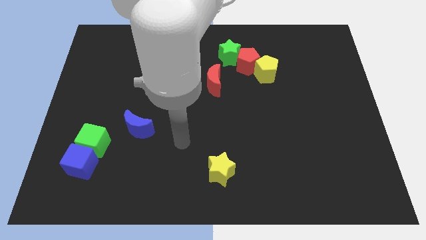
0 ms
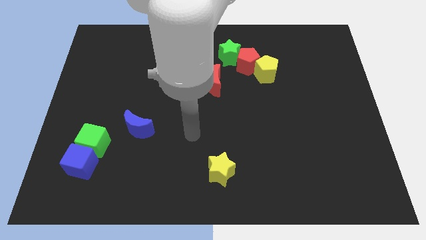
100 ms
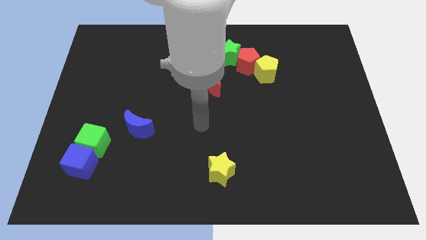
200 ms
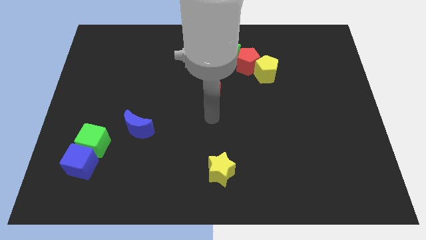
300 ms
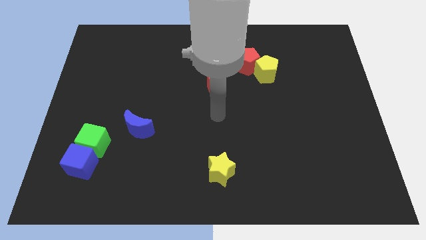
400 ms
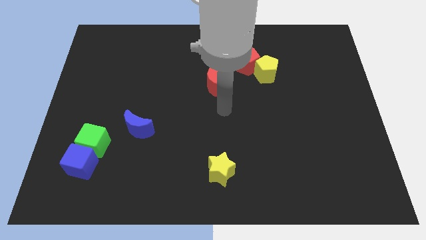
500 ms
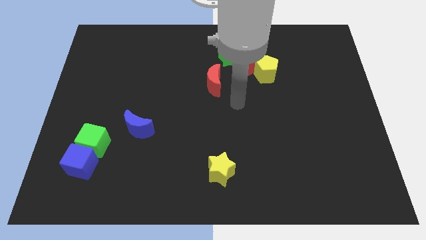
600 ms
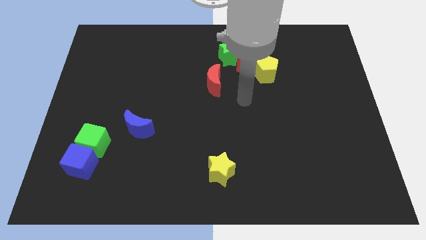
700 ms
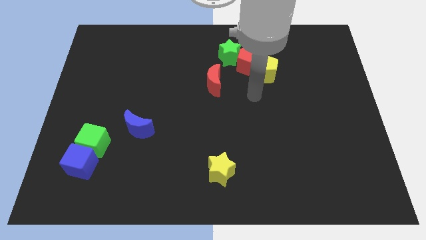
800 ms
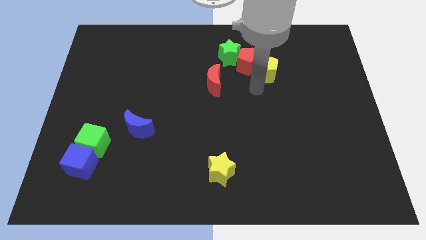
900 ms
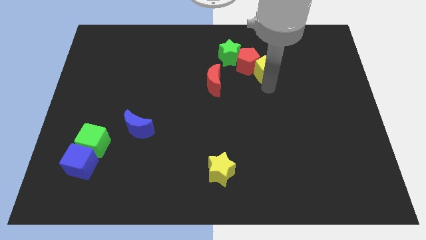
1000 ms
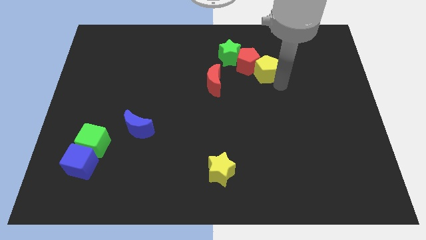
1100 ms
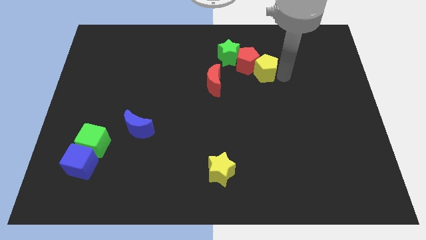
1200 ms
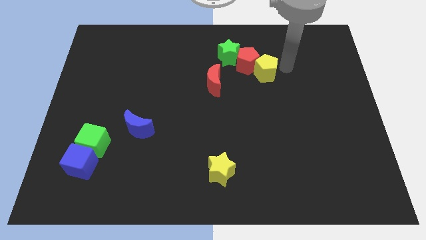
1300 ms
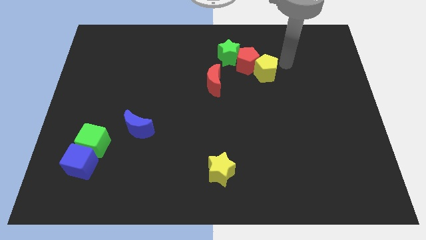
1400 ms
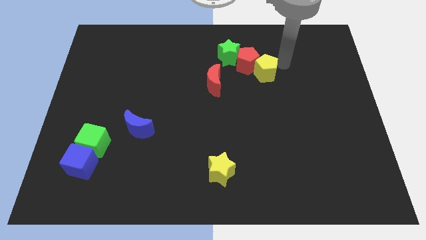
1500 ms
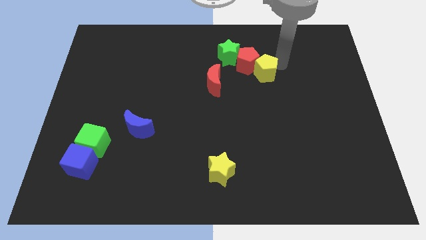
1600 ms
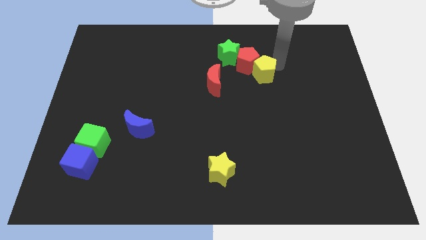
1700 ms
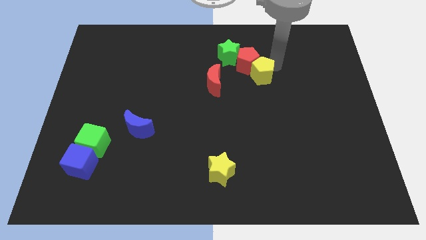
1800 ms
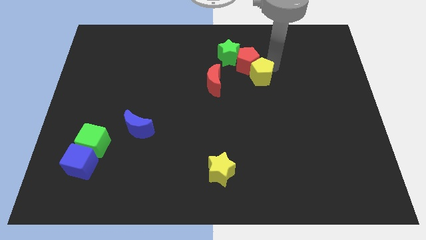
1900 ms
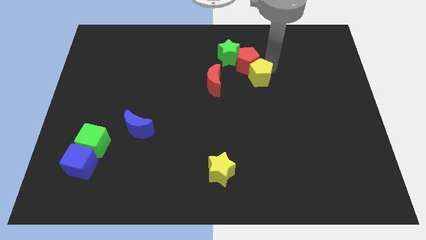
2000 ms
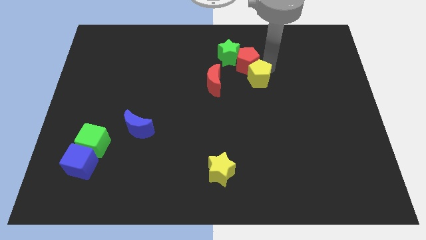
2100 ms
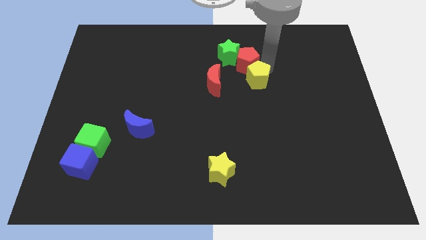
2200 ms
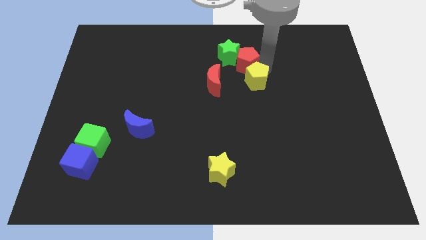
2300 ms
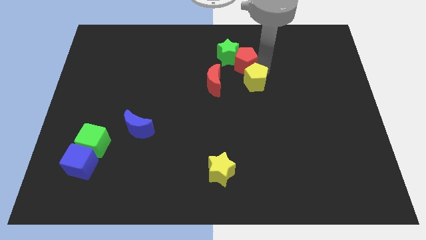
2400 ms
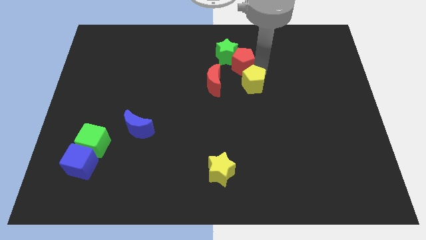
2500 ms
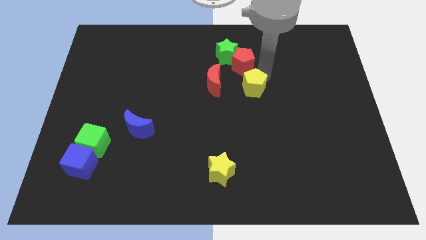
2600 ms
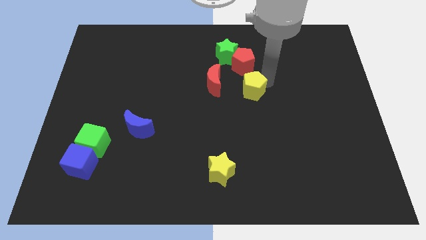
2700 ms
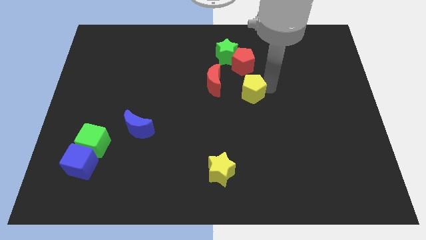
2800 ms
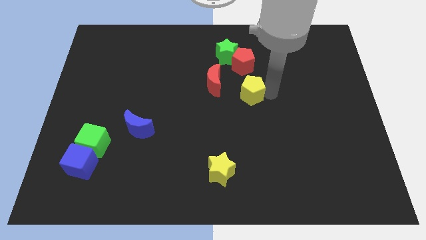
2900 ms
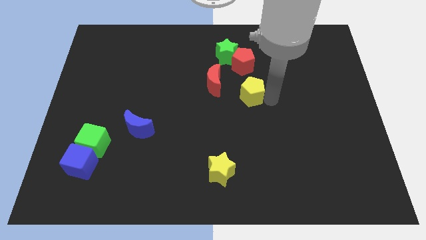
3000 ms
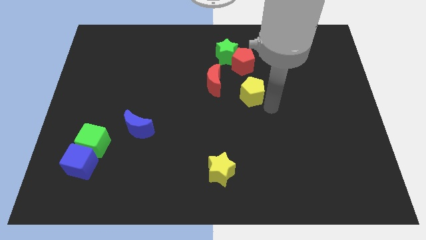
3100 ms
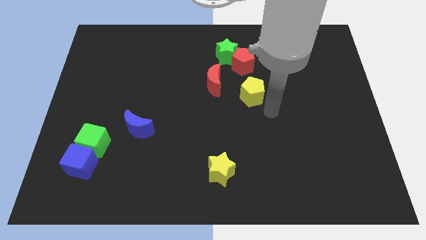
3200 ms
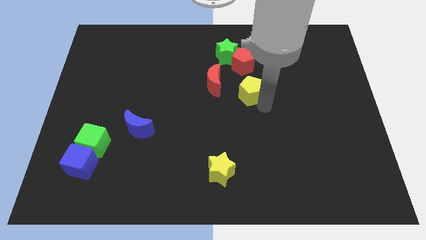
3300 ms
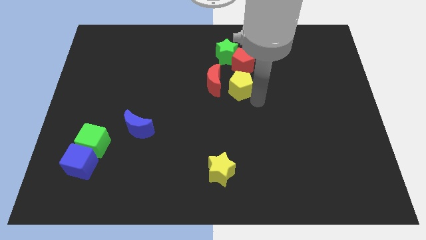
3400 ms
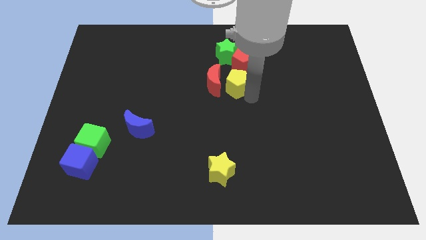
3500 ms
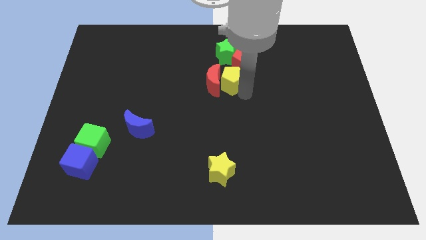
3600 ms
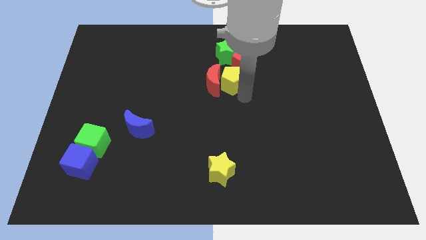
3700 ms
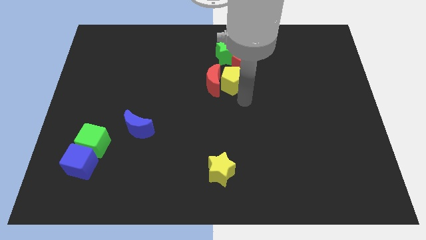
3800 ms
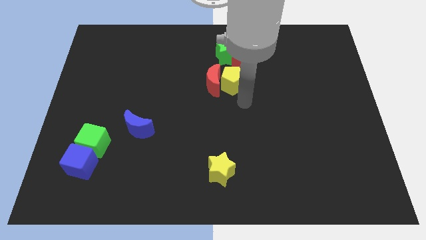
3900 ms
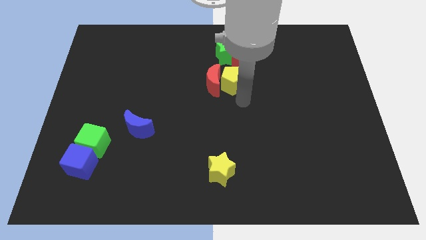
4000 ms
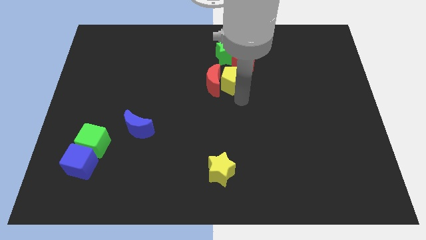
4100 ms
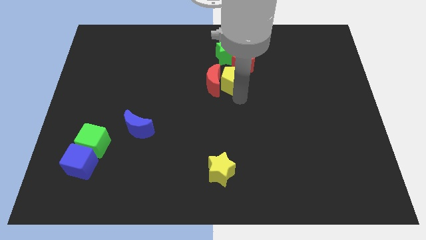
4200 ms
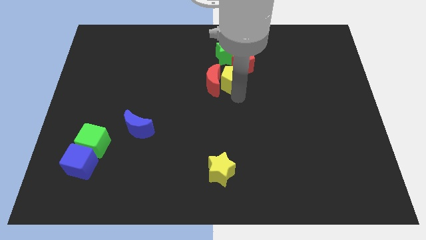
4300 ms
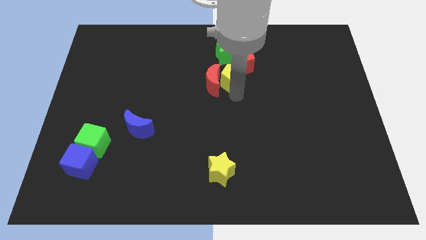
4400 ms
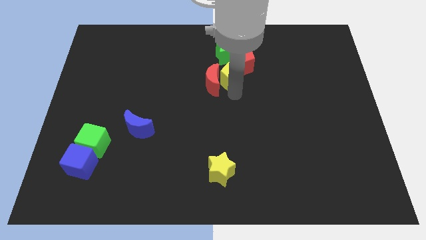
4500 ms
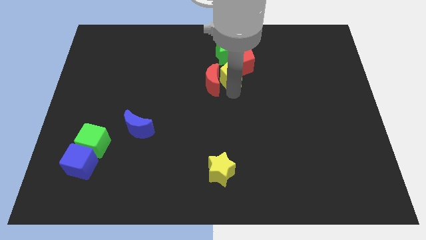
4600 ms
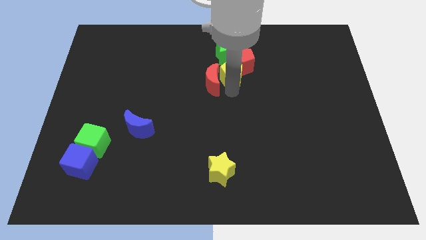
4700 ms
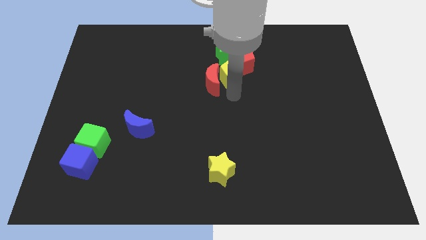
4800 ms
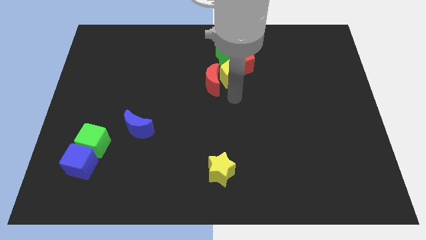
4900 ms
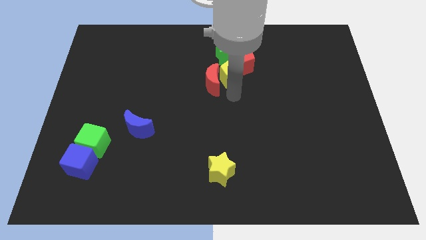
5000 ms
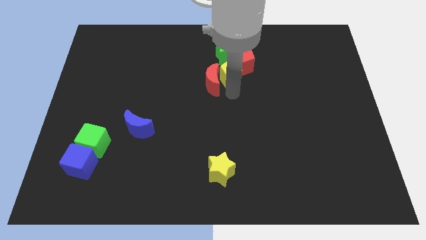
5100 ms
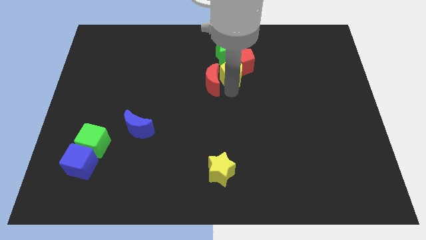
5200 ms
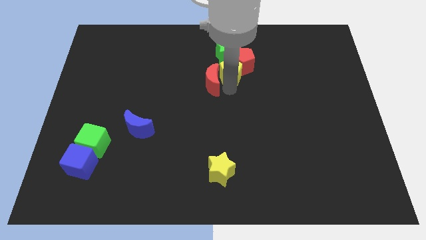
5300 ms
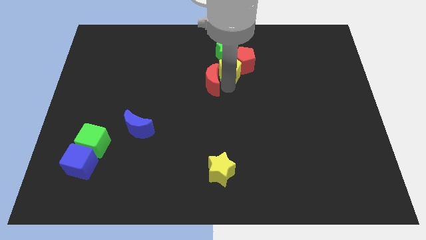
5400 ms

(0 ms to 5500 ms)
slide the yellow pentagon to the green star

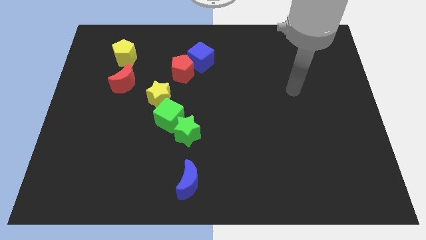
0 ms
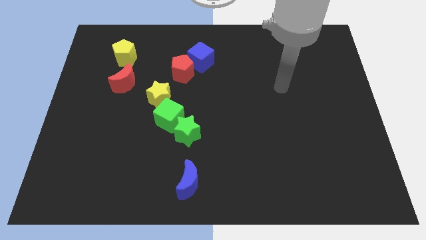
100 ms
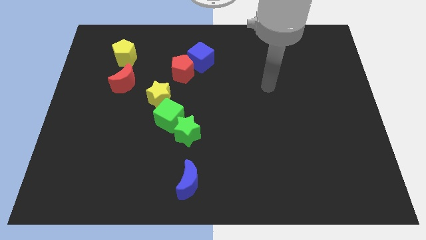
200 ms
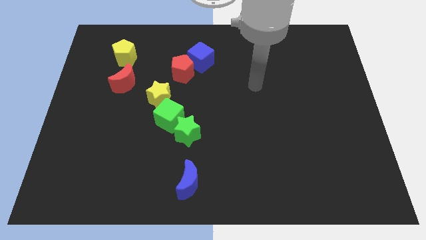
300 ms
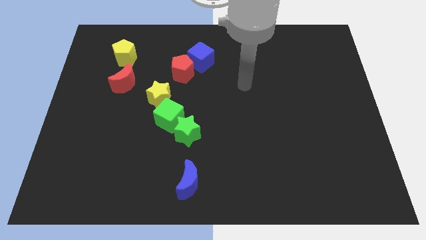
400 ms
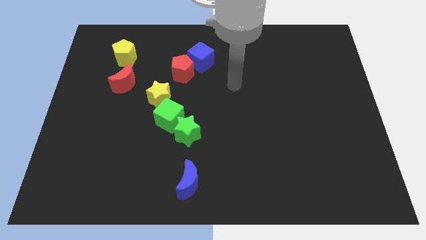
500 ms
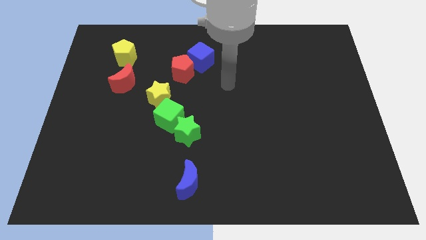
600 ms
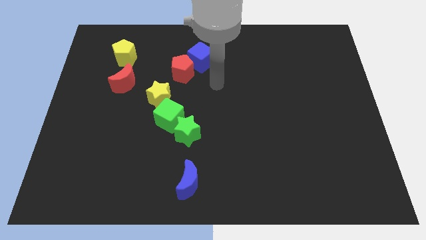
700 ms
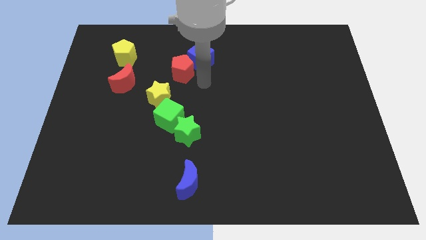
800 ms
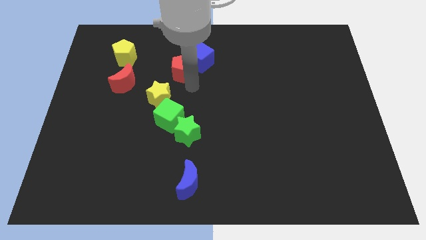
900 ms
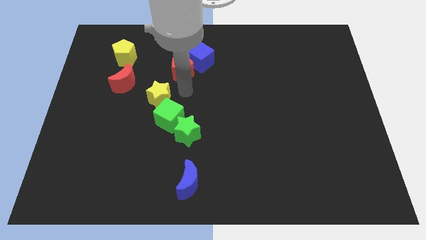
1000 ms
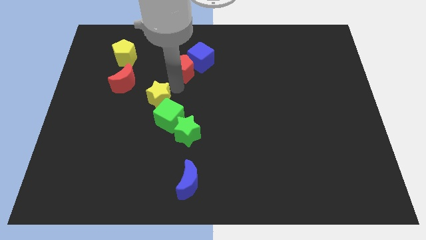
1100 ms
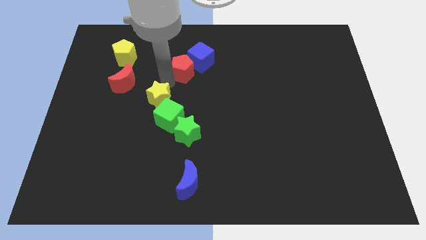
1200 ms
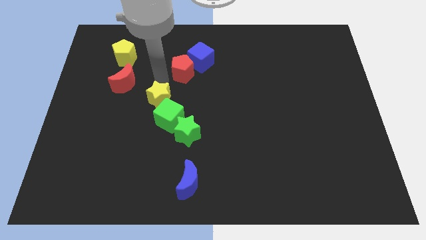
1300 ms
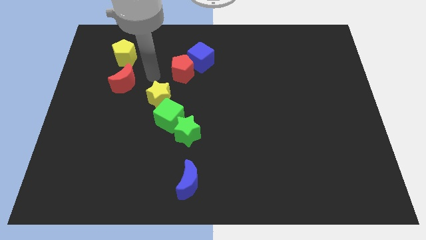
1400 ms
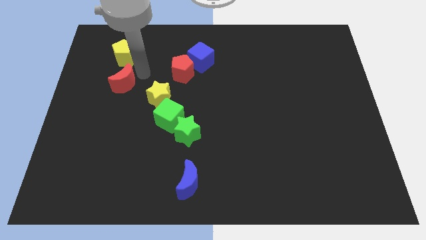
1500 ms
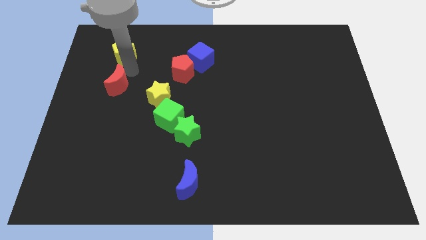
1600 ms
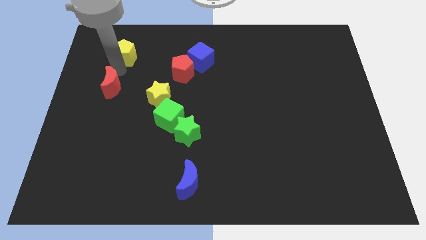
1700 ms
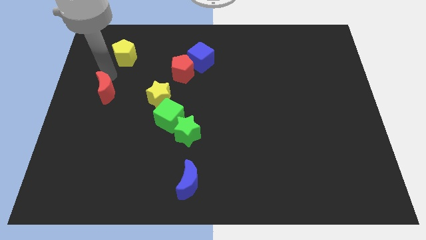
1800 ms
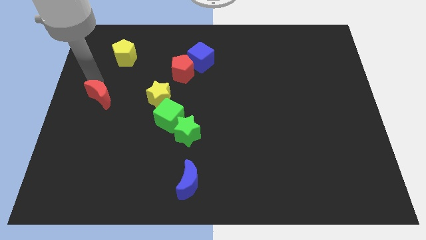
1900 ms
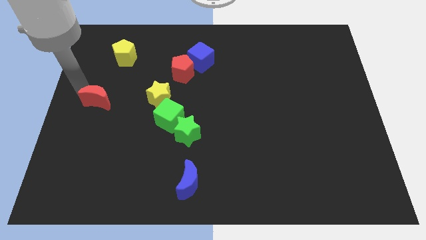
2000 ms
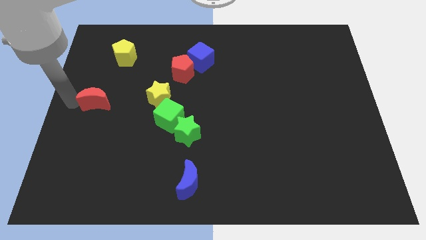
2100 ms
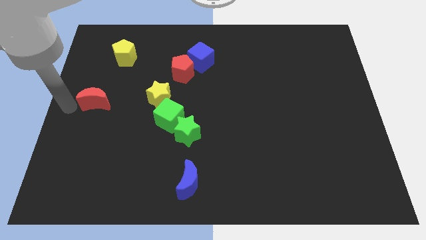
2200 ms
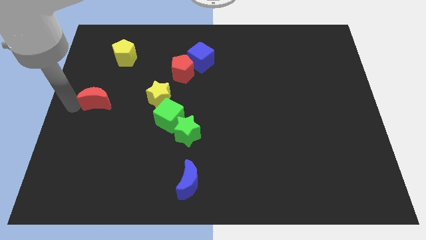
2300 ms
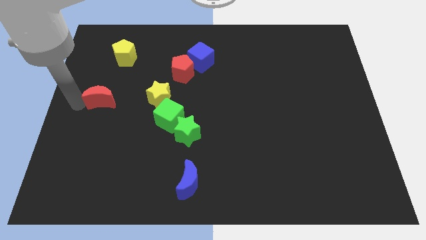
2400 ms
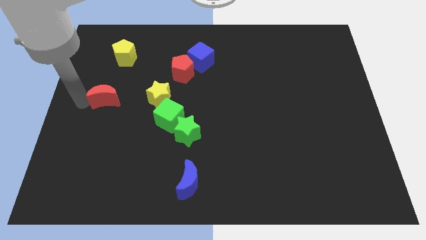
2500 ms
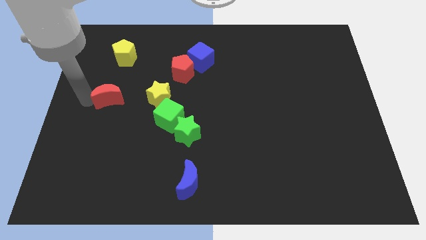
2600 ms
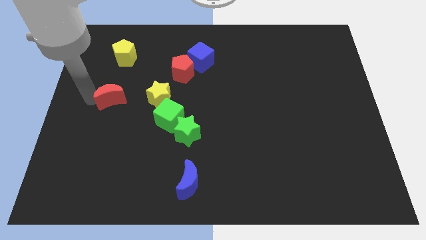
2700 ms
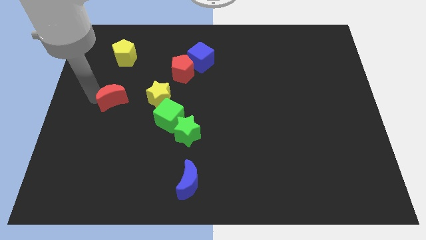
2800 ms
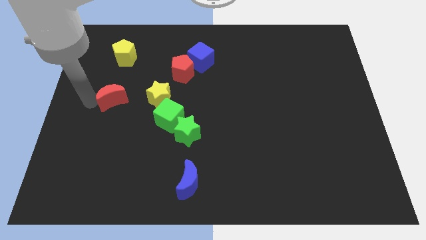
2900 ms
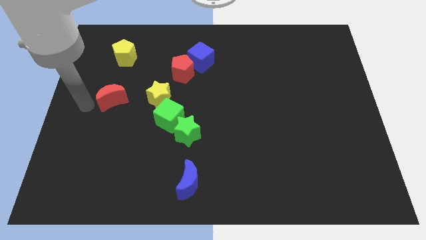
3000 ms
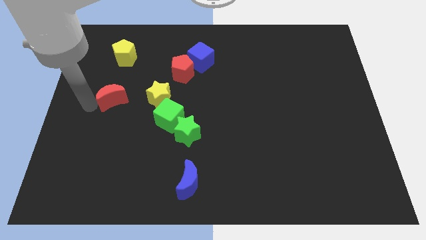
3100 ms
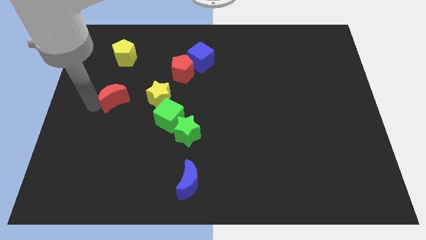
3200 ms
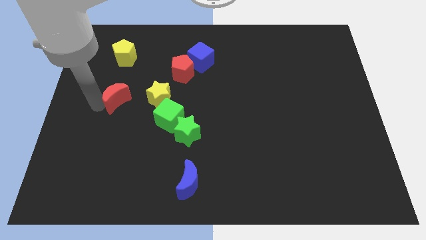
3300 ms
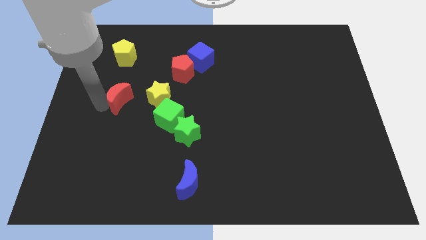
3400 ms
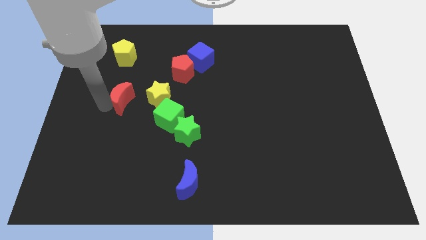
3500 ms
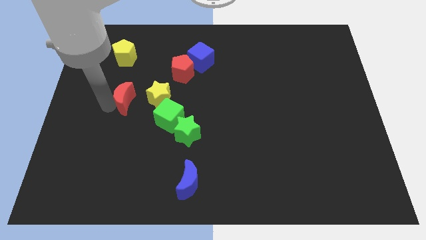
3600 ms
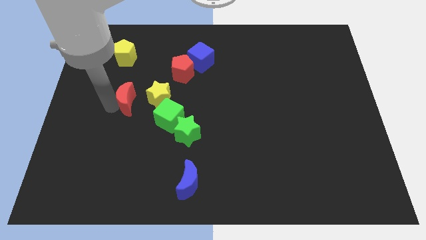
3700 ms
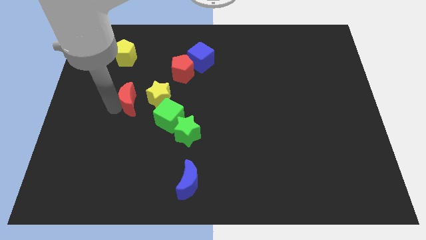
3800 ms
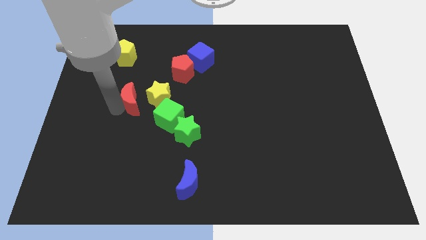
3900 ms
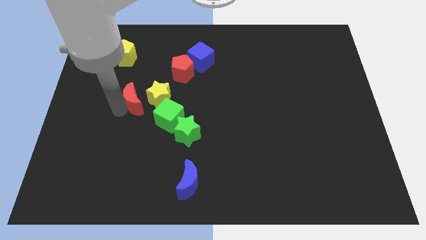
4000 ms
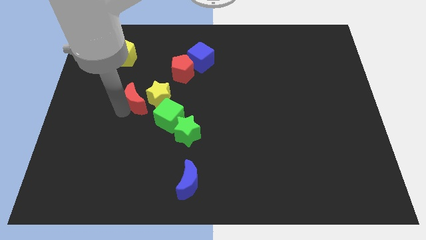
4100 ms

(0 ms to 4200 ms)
put the red moon next to the yellow star
